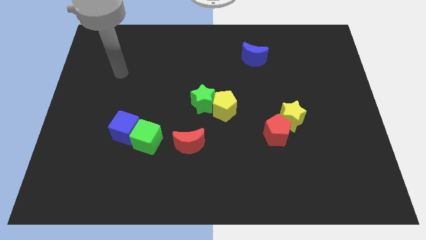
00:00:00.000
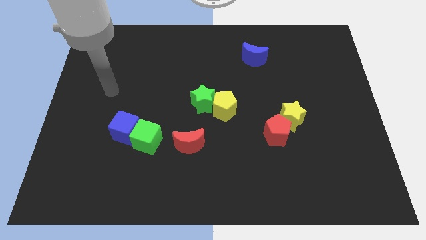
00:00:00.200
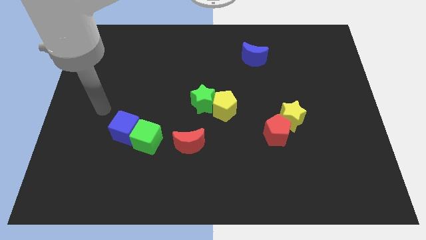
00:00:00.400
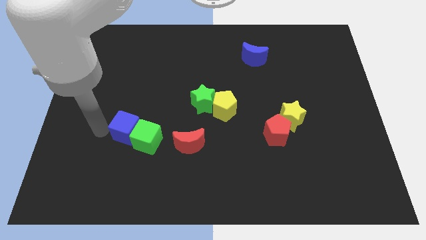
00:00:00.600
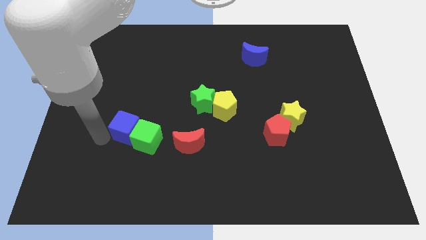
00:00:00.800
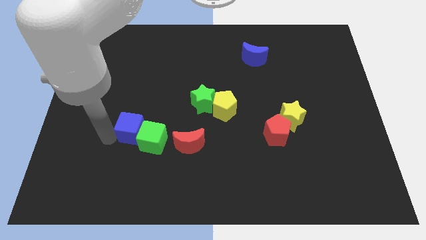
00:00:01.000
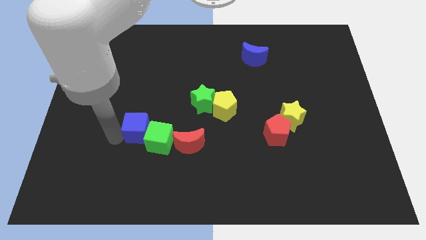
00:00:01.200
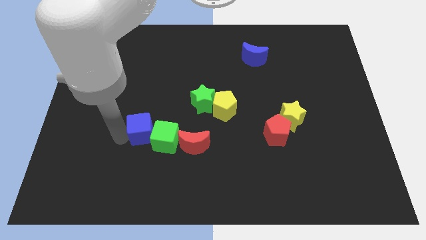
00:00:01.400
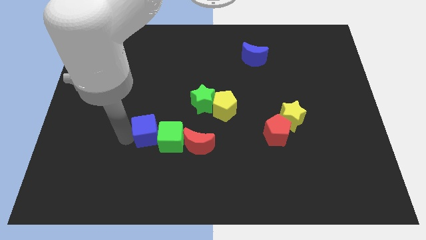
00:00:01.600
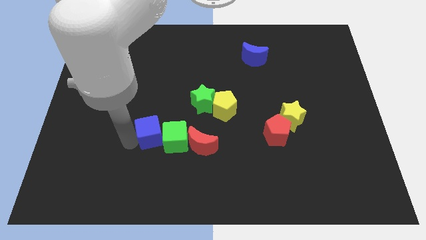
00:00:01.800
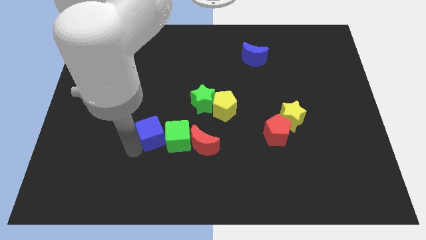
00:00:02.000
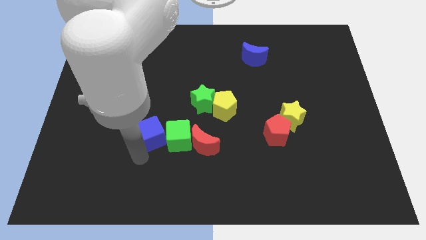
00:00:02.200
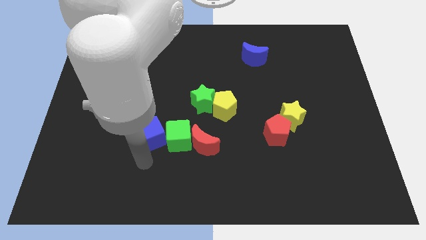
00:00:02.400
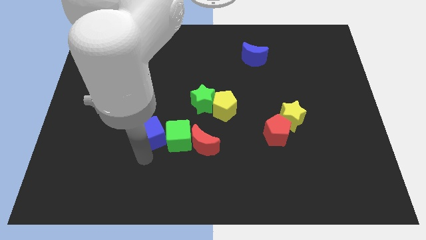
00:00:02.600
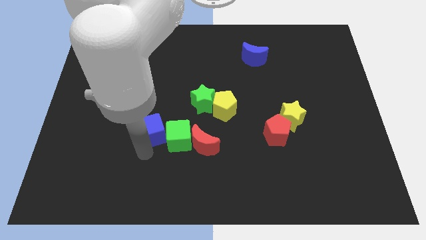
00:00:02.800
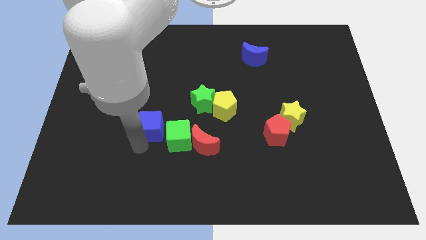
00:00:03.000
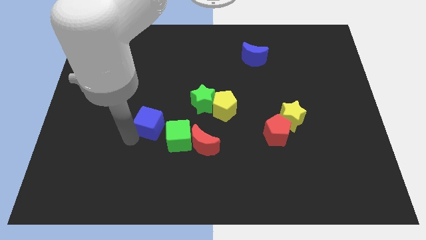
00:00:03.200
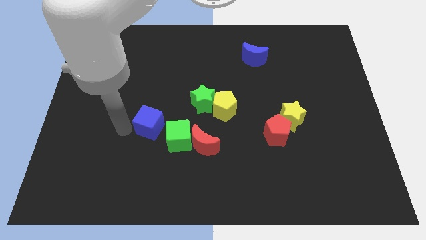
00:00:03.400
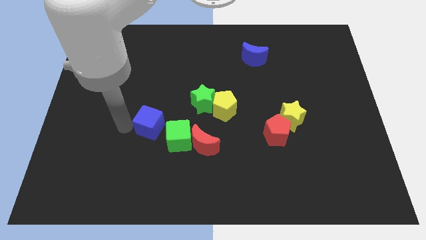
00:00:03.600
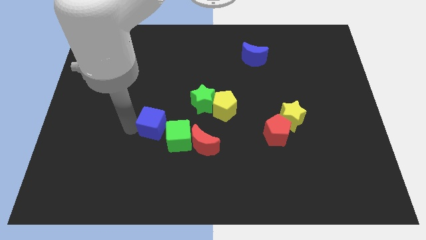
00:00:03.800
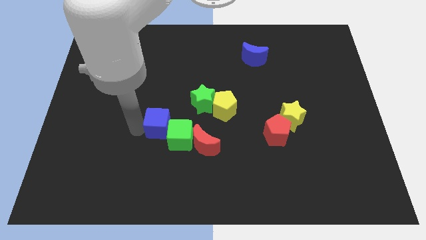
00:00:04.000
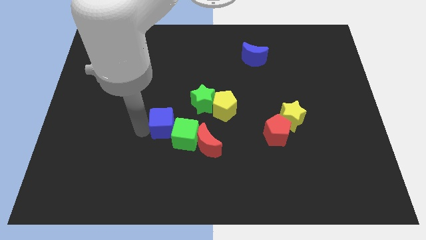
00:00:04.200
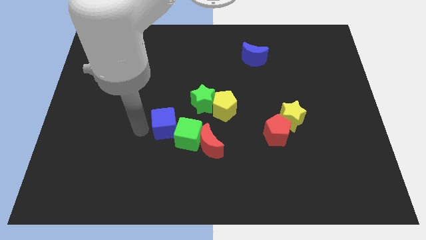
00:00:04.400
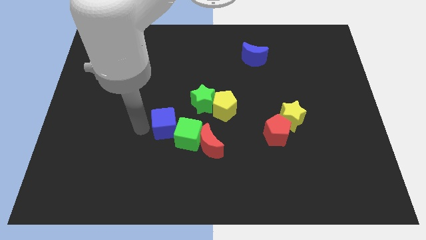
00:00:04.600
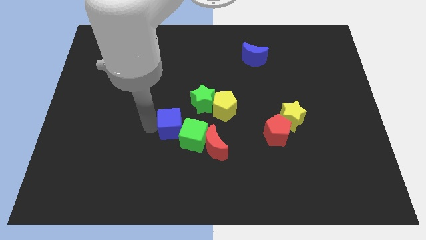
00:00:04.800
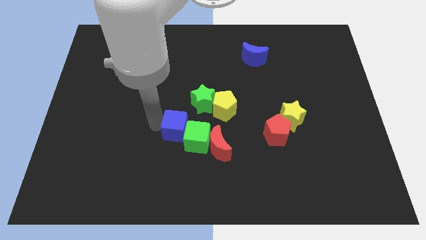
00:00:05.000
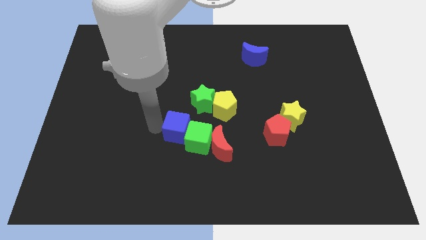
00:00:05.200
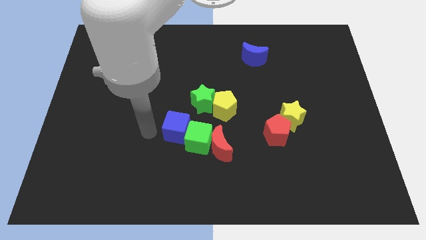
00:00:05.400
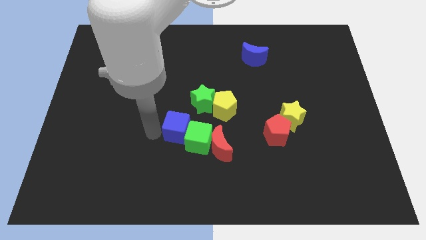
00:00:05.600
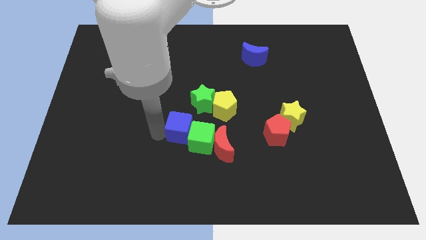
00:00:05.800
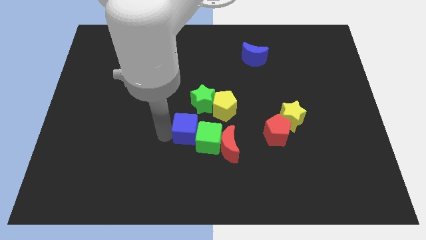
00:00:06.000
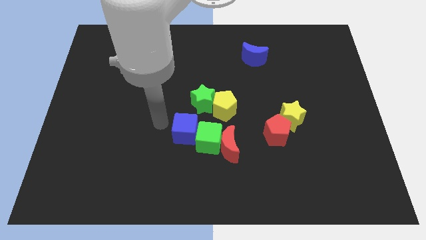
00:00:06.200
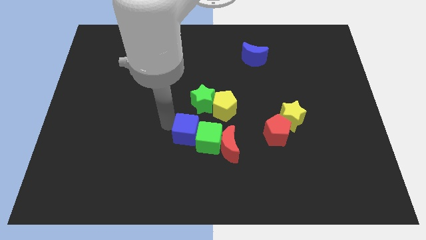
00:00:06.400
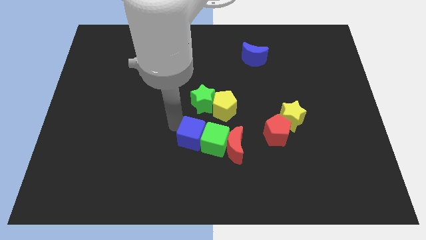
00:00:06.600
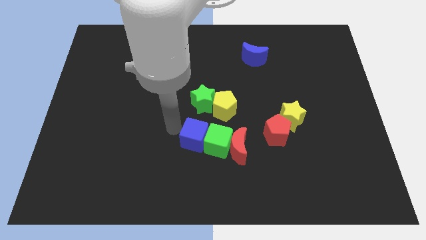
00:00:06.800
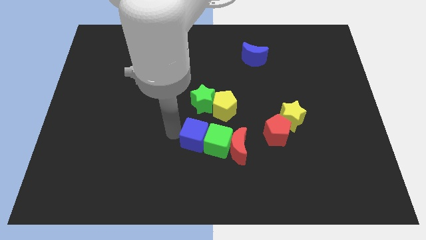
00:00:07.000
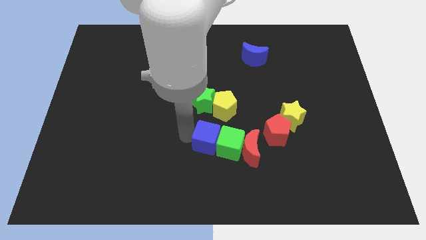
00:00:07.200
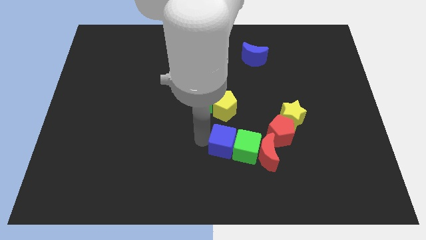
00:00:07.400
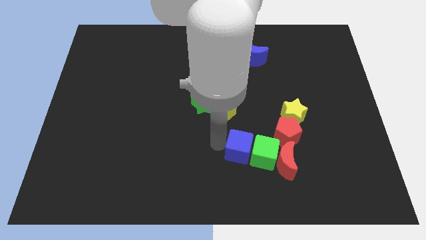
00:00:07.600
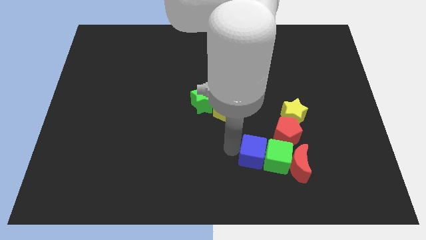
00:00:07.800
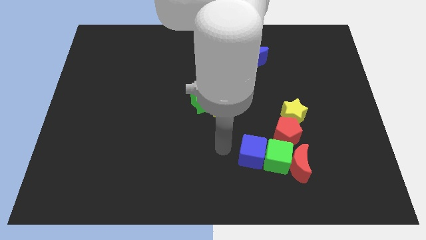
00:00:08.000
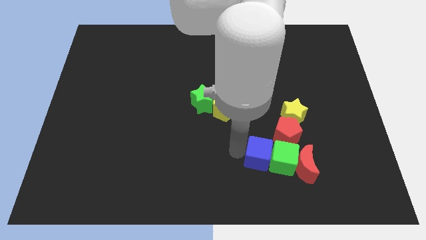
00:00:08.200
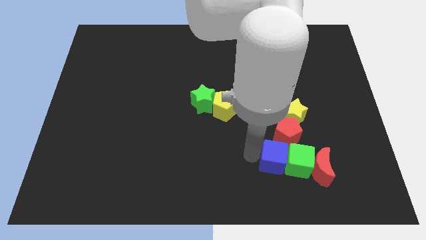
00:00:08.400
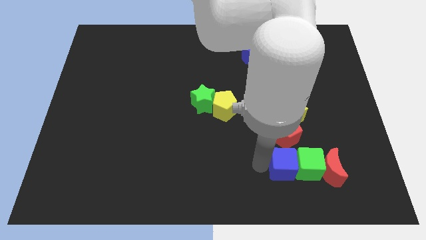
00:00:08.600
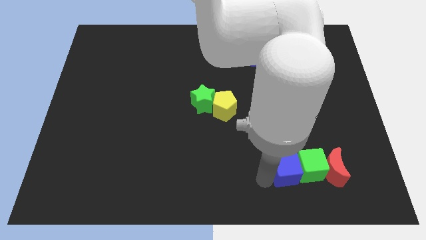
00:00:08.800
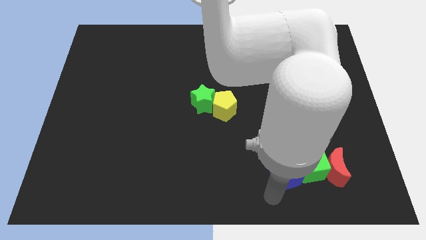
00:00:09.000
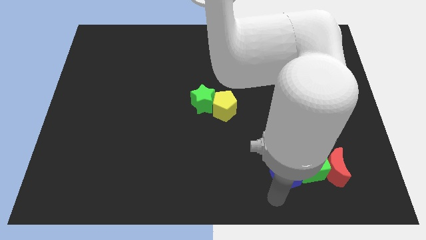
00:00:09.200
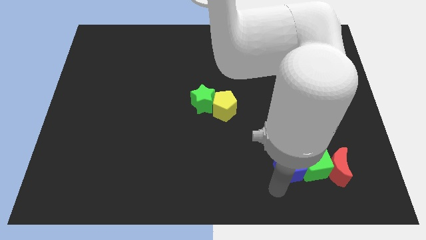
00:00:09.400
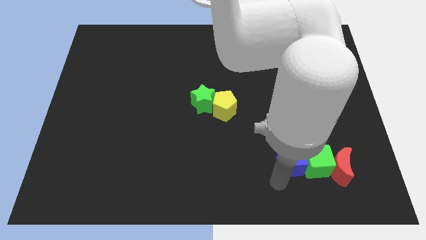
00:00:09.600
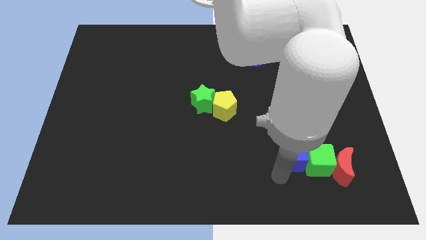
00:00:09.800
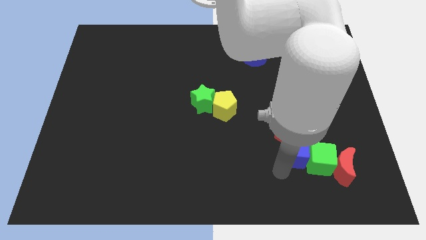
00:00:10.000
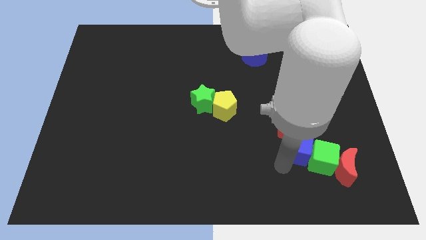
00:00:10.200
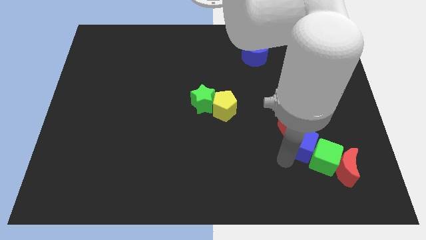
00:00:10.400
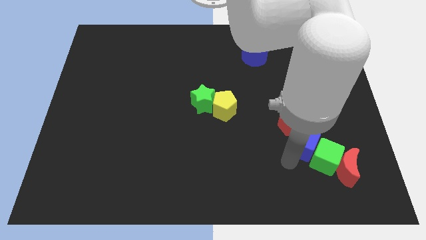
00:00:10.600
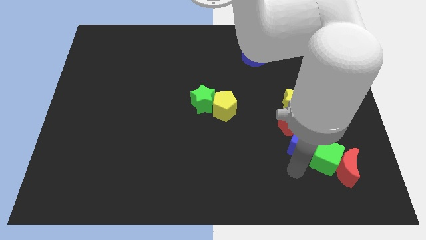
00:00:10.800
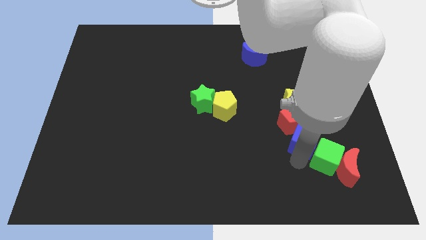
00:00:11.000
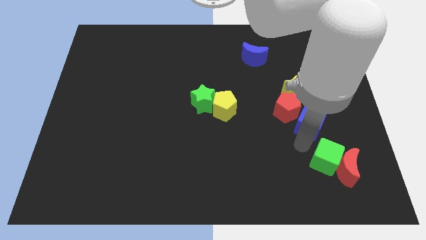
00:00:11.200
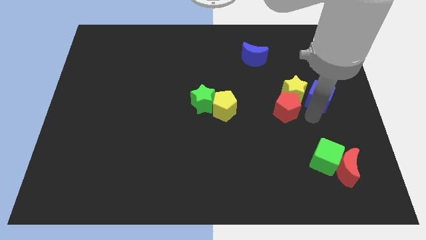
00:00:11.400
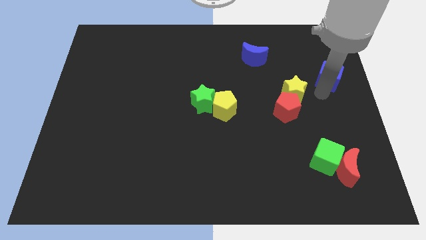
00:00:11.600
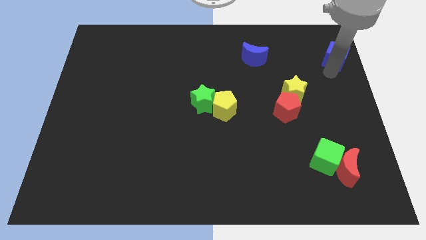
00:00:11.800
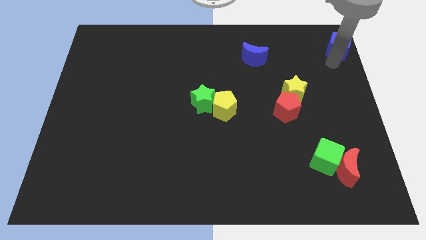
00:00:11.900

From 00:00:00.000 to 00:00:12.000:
move the blue cube to the top right

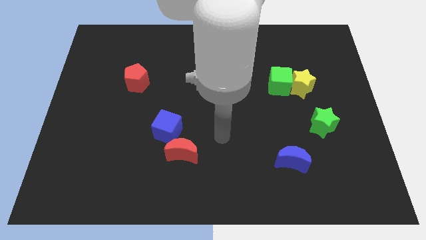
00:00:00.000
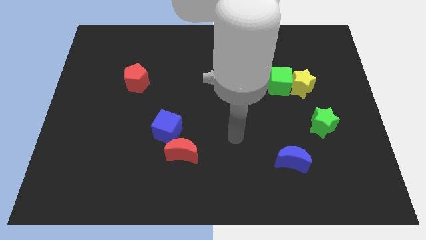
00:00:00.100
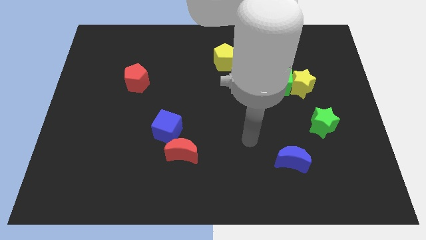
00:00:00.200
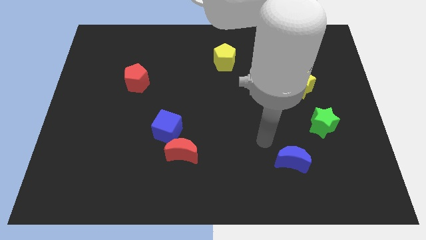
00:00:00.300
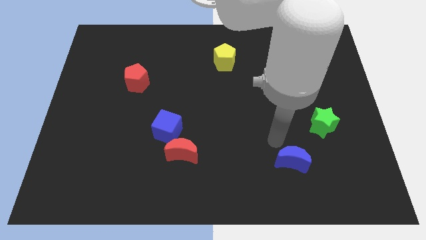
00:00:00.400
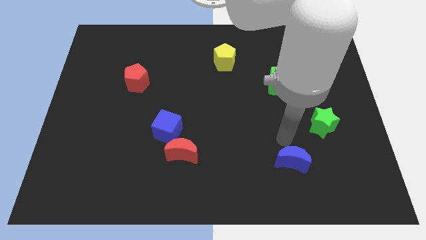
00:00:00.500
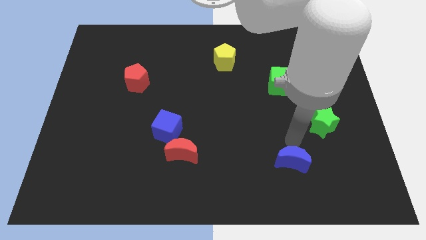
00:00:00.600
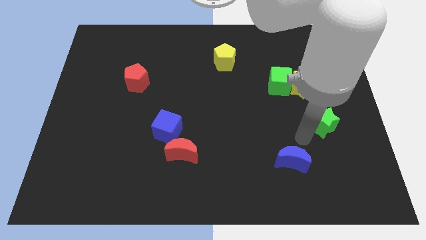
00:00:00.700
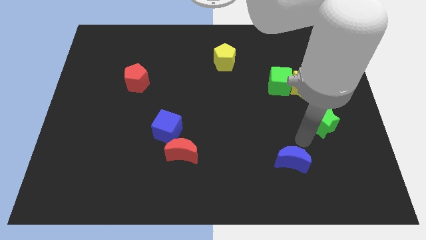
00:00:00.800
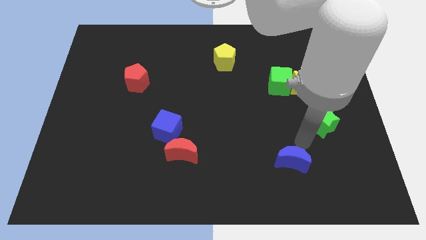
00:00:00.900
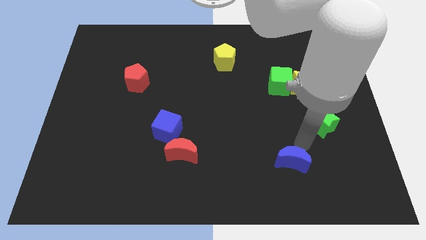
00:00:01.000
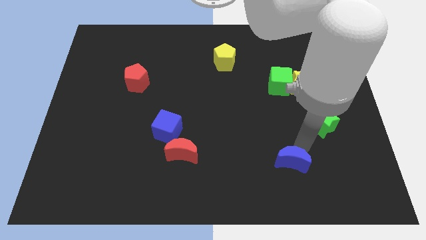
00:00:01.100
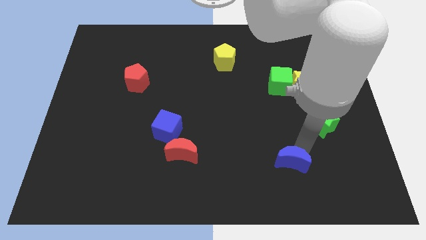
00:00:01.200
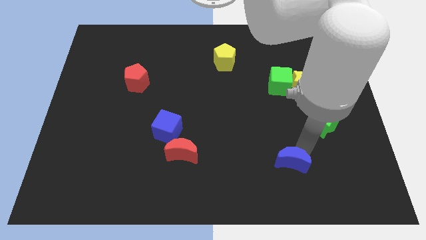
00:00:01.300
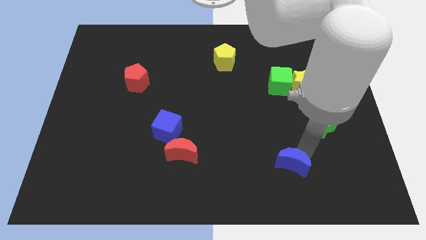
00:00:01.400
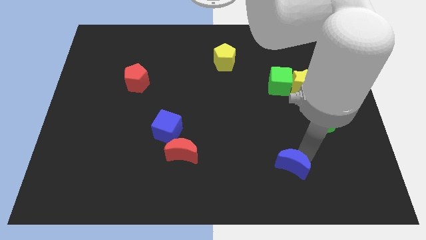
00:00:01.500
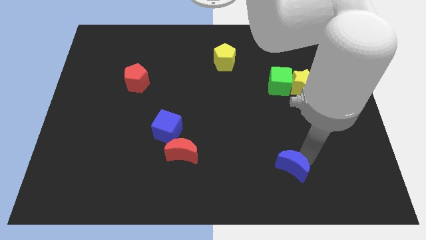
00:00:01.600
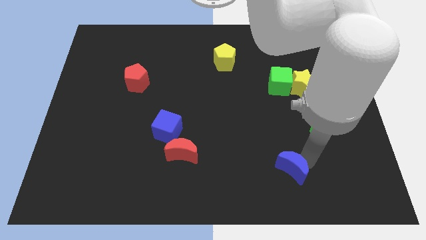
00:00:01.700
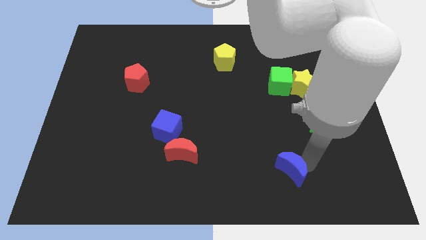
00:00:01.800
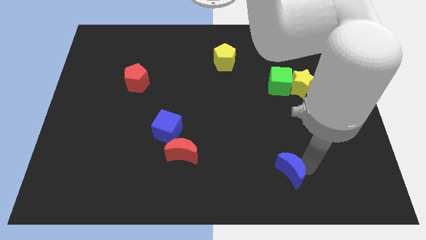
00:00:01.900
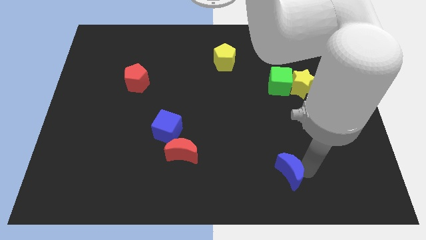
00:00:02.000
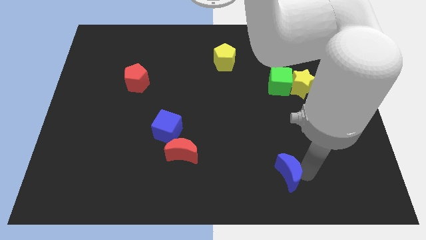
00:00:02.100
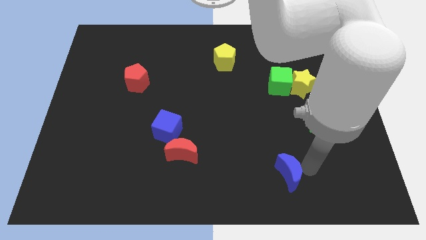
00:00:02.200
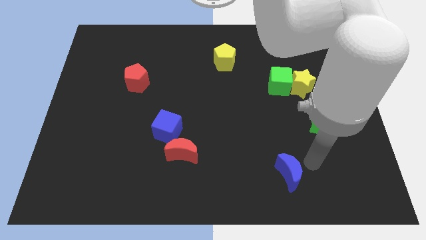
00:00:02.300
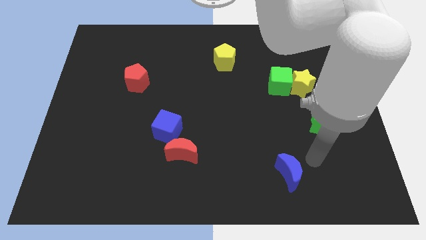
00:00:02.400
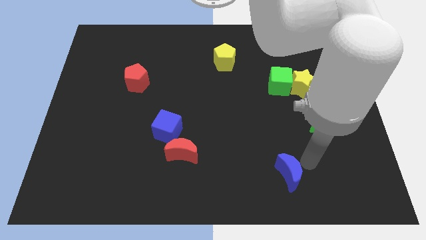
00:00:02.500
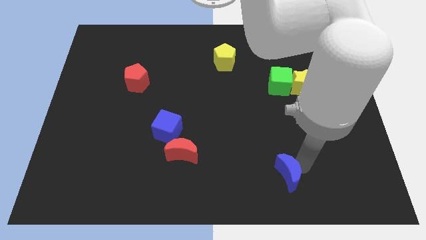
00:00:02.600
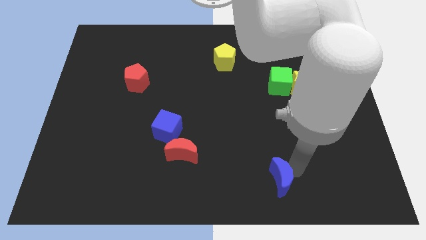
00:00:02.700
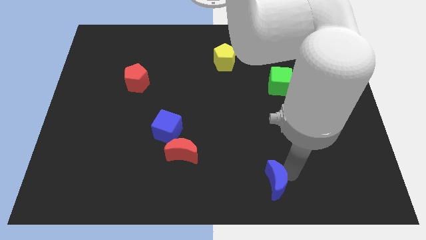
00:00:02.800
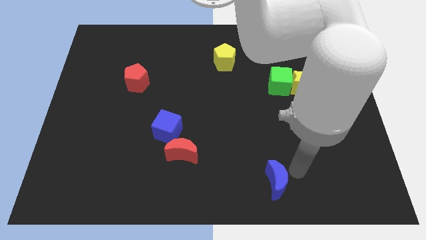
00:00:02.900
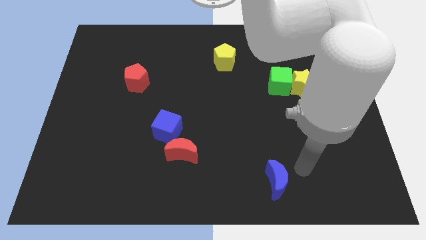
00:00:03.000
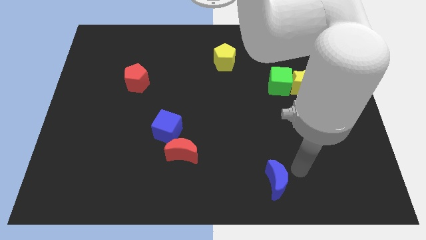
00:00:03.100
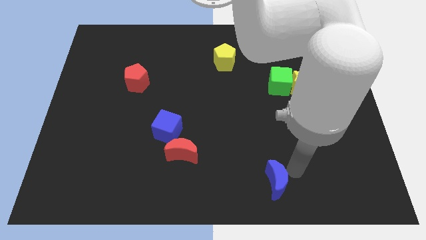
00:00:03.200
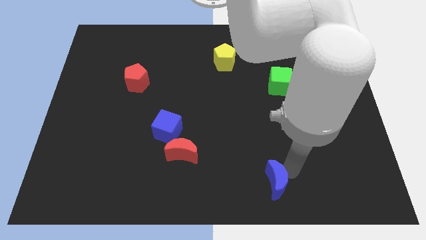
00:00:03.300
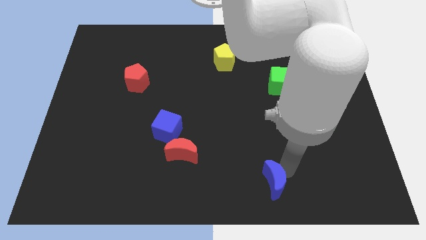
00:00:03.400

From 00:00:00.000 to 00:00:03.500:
slide the blue moon to the bottom side
